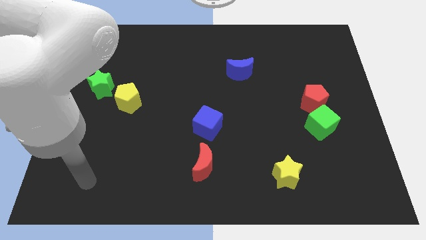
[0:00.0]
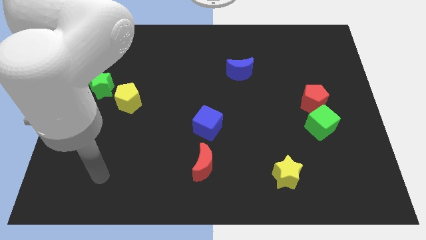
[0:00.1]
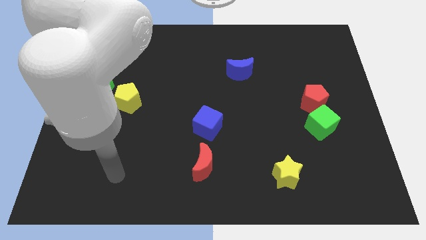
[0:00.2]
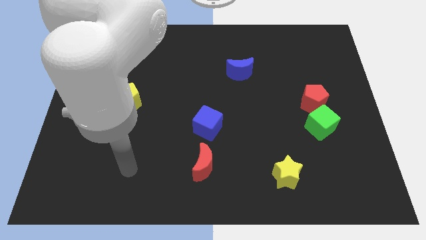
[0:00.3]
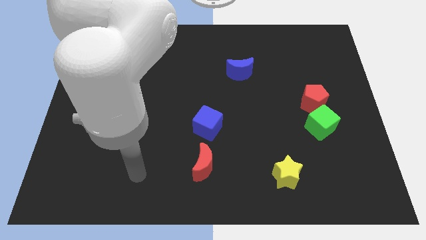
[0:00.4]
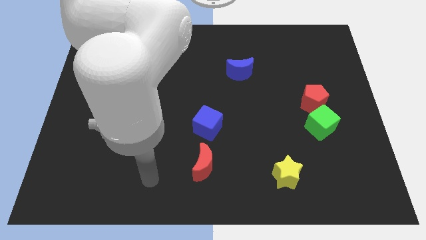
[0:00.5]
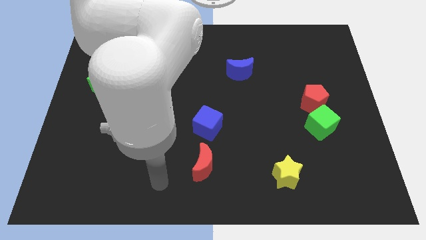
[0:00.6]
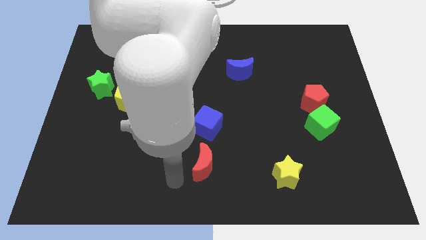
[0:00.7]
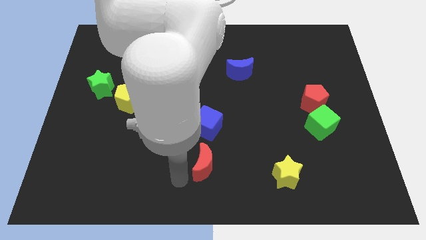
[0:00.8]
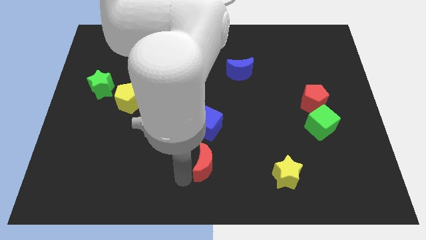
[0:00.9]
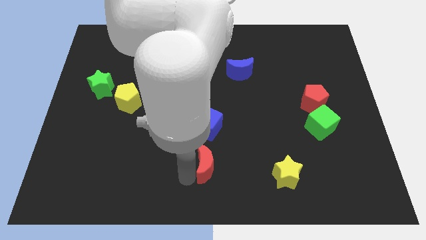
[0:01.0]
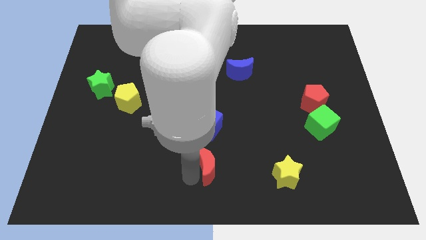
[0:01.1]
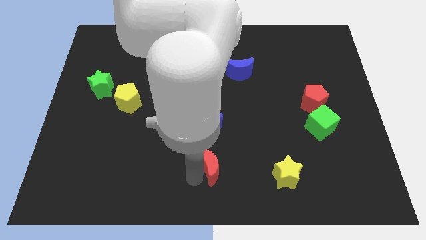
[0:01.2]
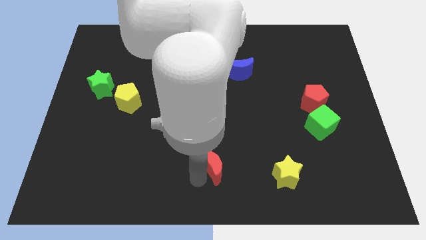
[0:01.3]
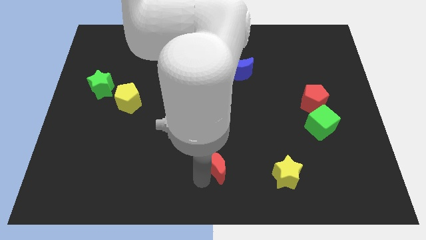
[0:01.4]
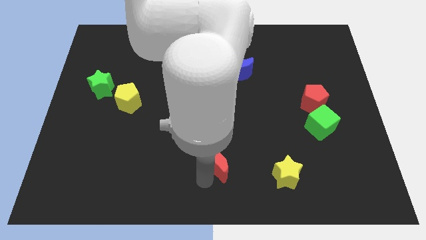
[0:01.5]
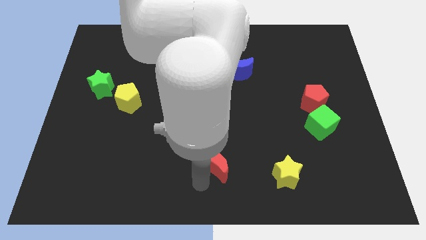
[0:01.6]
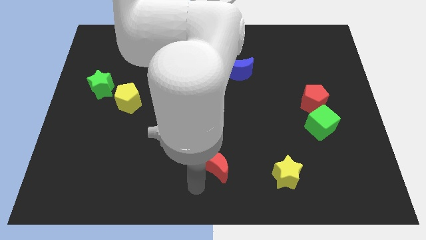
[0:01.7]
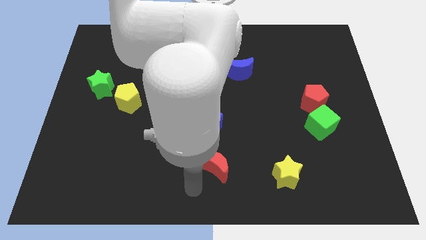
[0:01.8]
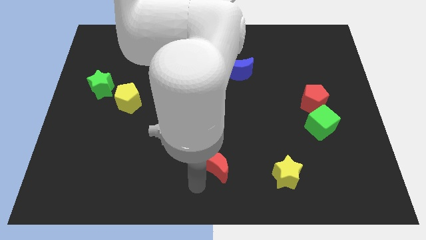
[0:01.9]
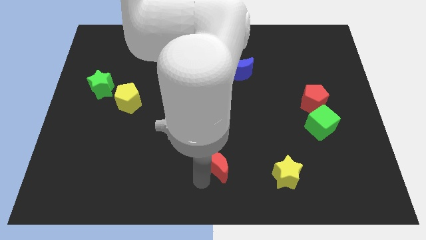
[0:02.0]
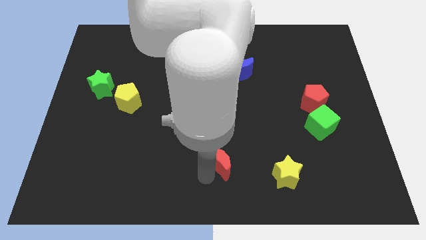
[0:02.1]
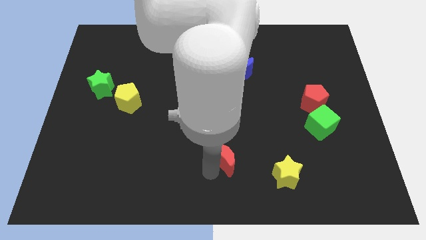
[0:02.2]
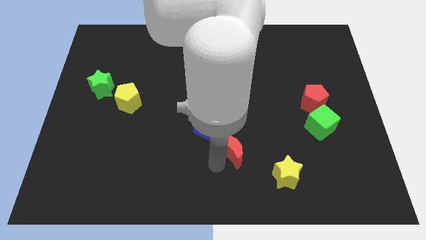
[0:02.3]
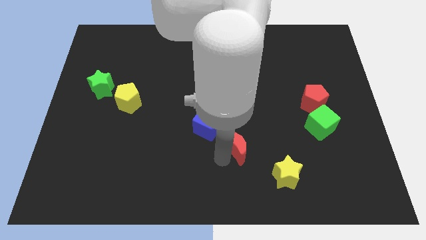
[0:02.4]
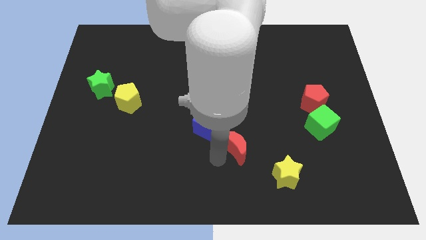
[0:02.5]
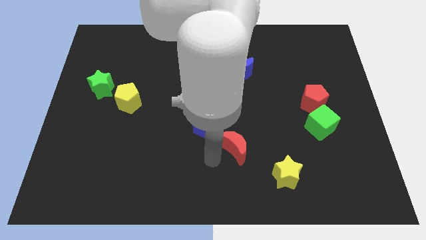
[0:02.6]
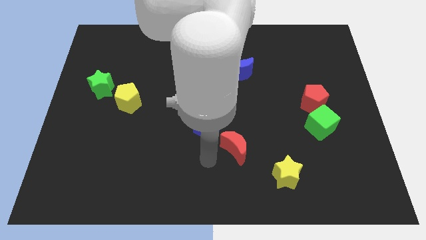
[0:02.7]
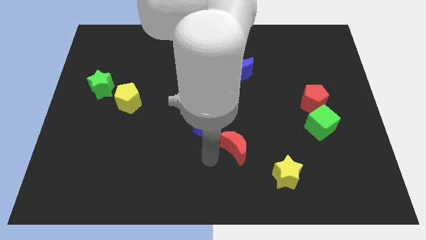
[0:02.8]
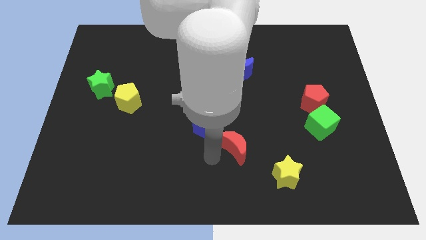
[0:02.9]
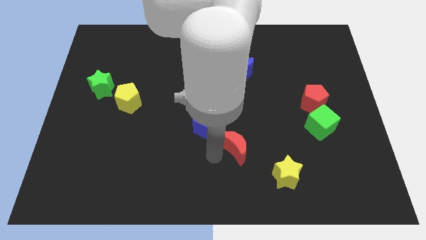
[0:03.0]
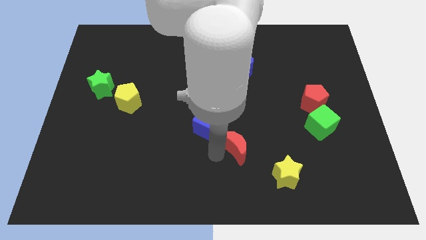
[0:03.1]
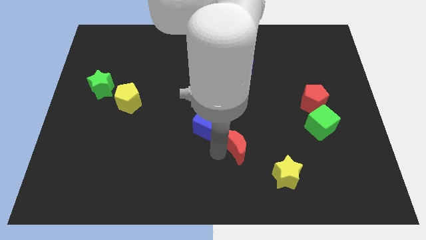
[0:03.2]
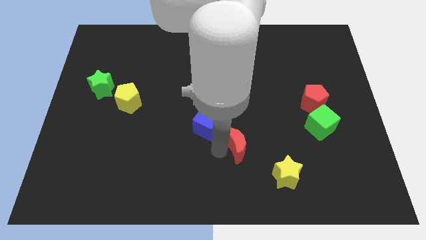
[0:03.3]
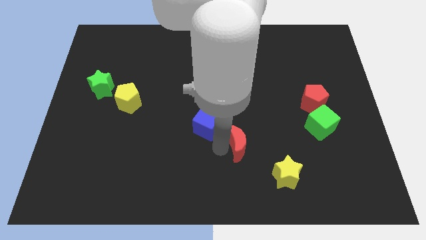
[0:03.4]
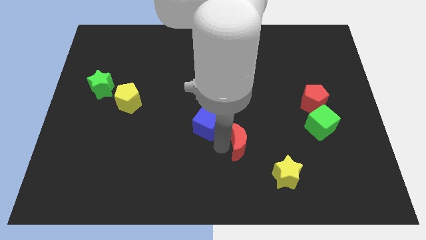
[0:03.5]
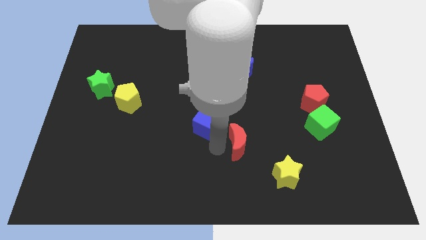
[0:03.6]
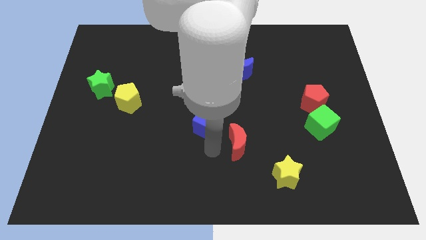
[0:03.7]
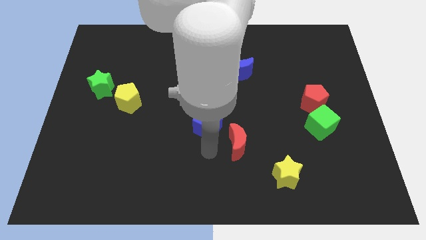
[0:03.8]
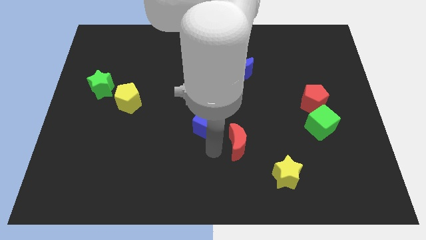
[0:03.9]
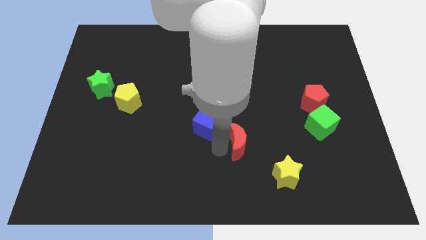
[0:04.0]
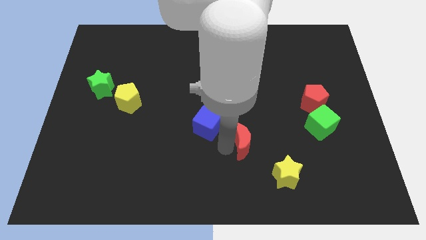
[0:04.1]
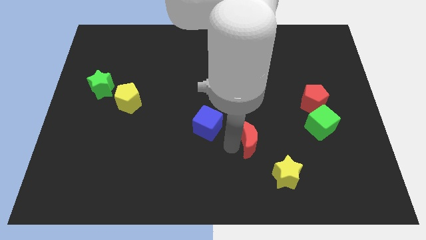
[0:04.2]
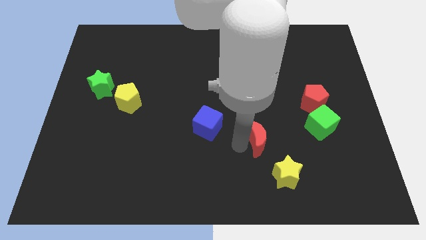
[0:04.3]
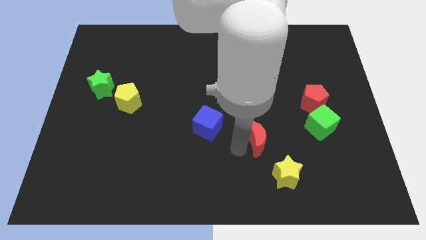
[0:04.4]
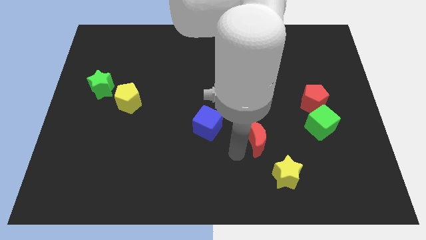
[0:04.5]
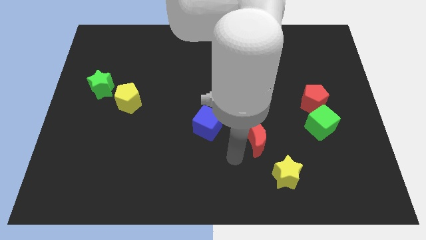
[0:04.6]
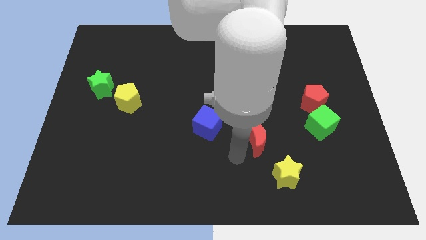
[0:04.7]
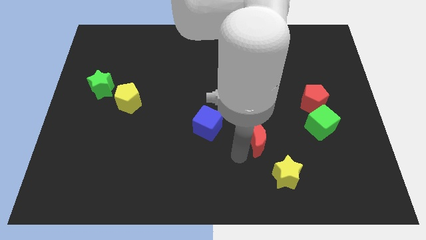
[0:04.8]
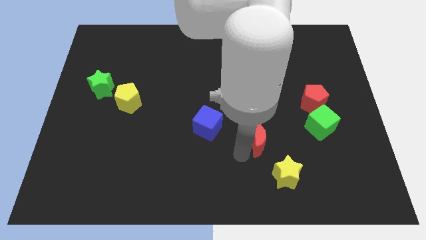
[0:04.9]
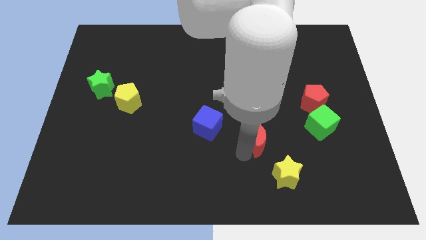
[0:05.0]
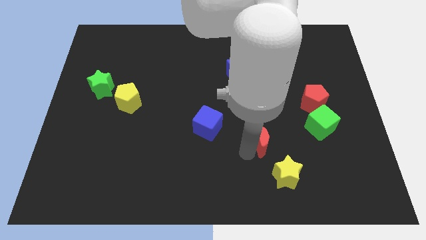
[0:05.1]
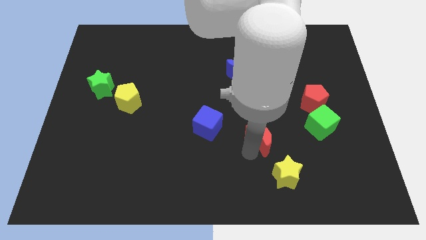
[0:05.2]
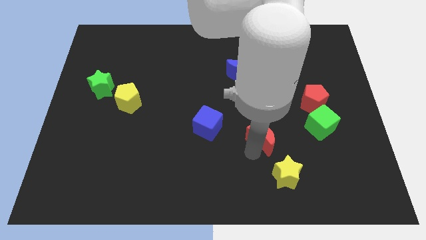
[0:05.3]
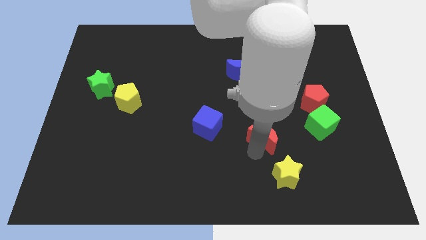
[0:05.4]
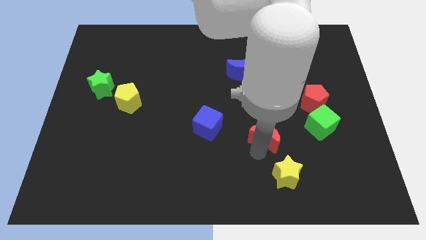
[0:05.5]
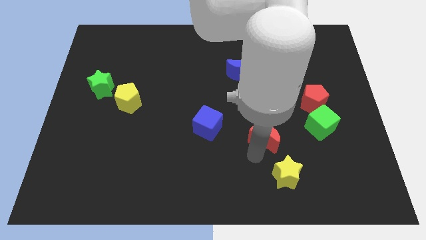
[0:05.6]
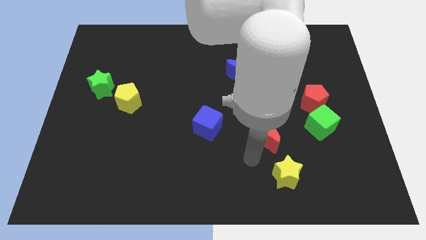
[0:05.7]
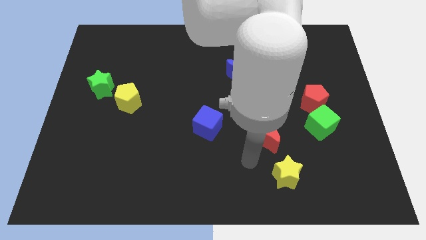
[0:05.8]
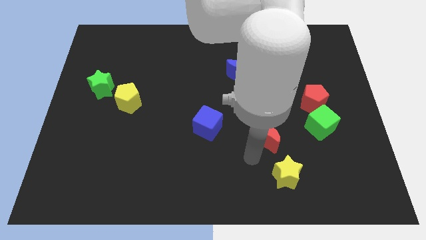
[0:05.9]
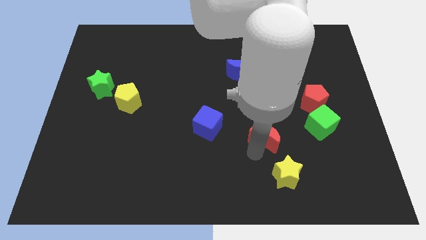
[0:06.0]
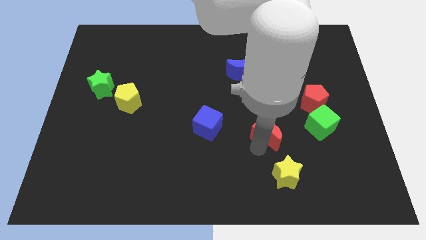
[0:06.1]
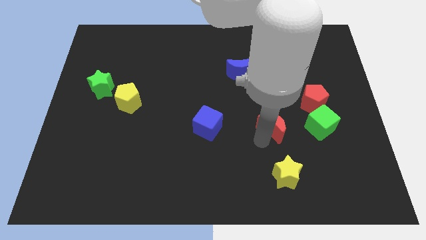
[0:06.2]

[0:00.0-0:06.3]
slide the red moon to the bottom left of the red pentagon

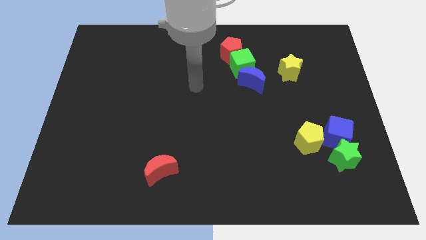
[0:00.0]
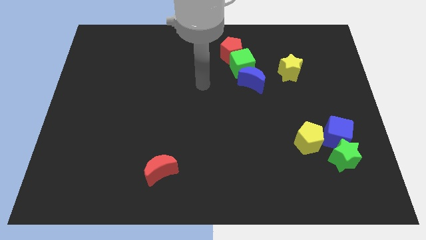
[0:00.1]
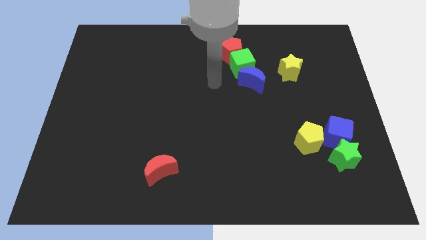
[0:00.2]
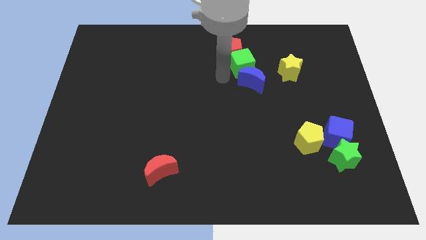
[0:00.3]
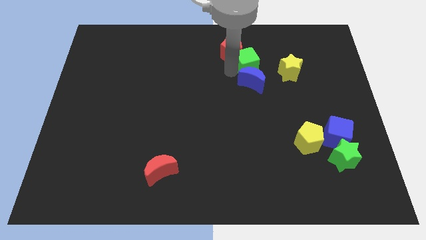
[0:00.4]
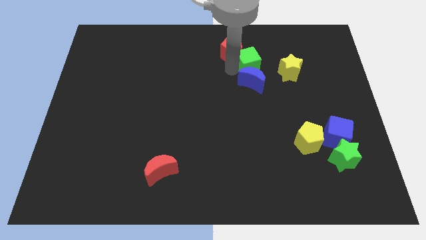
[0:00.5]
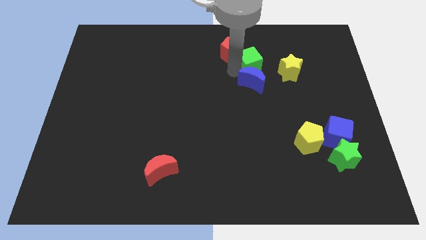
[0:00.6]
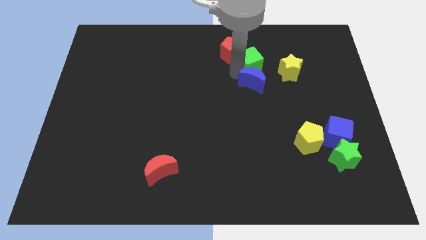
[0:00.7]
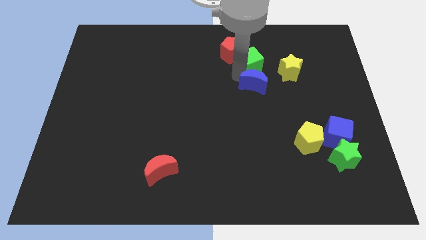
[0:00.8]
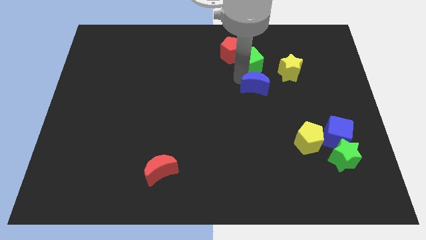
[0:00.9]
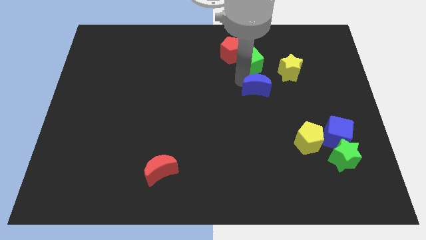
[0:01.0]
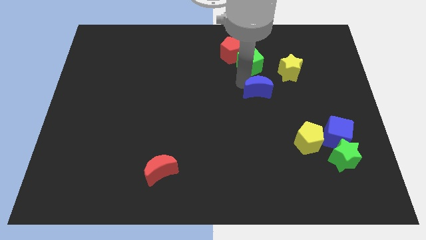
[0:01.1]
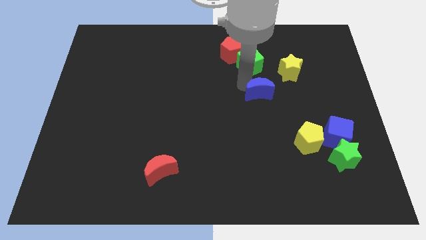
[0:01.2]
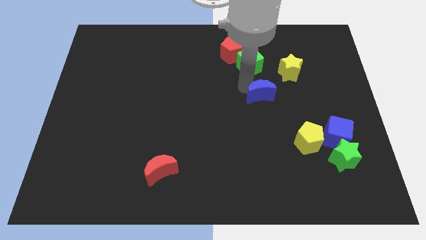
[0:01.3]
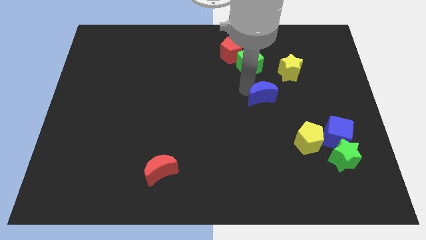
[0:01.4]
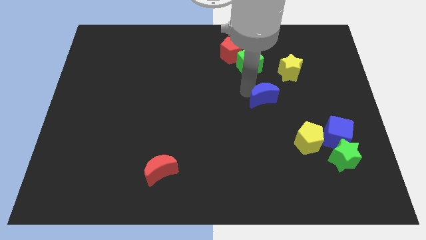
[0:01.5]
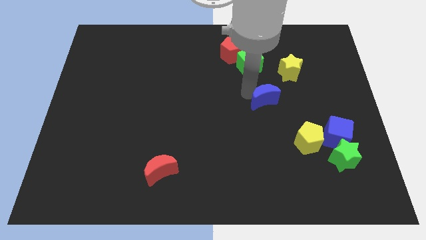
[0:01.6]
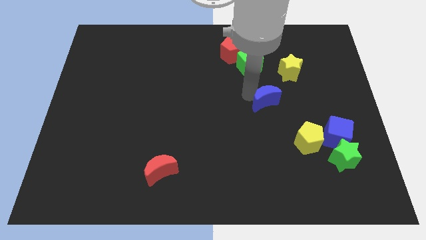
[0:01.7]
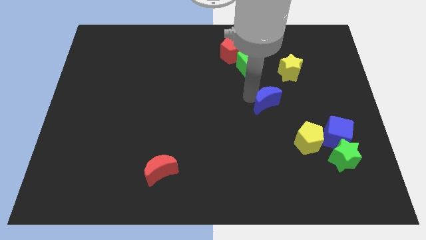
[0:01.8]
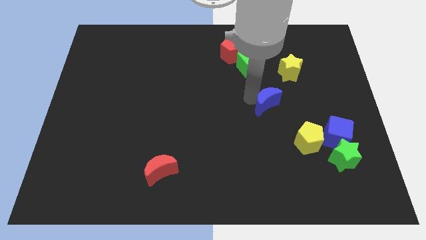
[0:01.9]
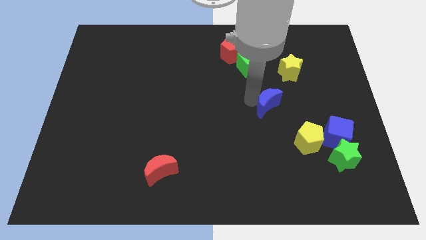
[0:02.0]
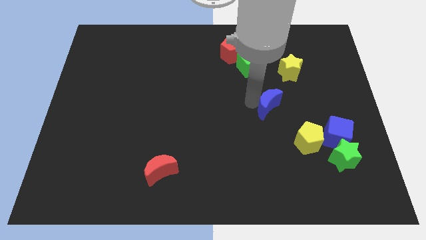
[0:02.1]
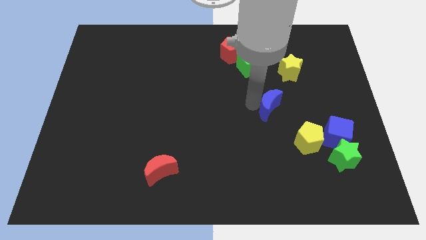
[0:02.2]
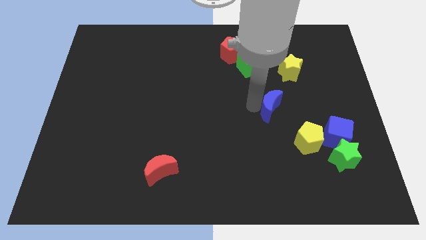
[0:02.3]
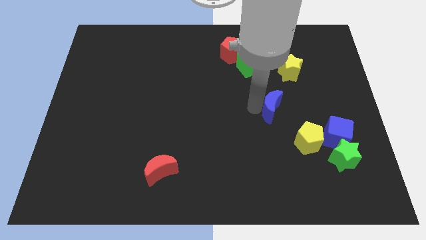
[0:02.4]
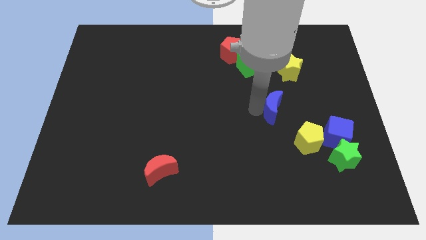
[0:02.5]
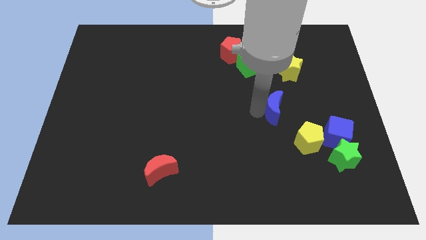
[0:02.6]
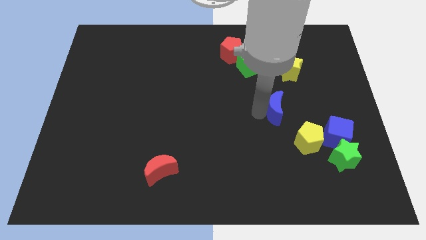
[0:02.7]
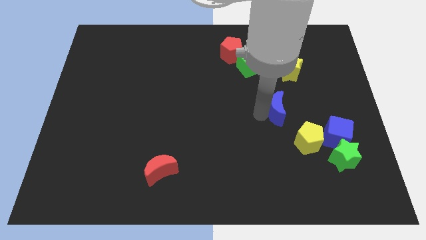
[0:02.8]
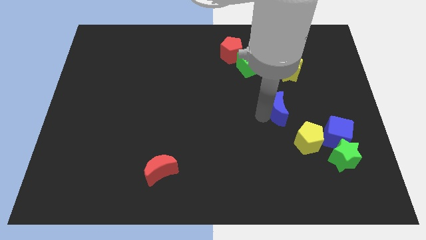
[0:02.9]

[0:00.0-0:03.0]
slide the blue moon to the bottom of the yellow star
